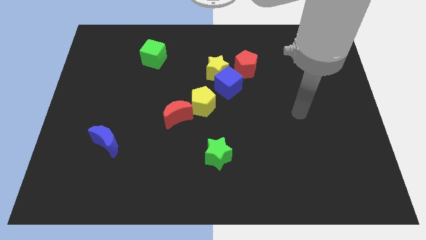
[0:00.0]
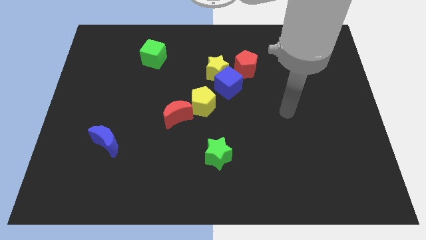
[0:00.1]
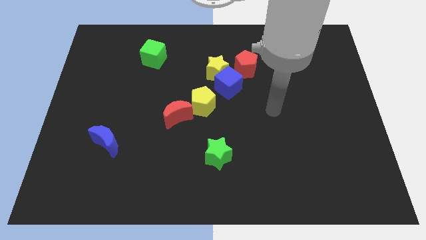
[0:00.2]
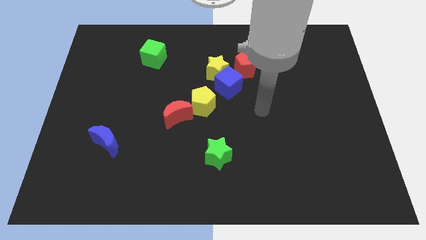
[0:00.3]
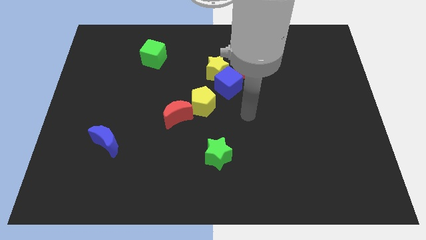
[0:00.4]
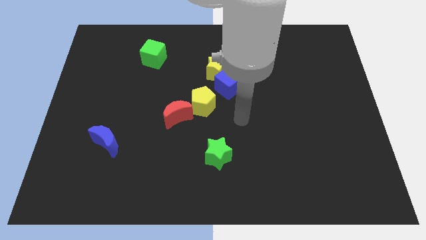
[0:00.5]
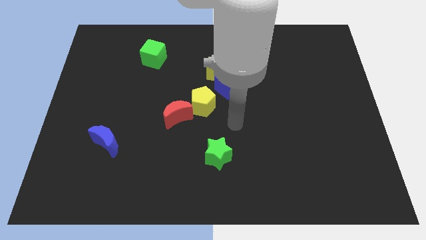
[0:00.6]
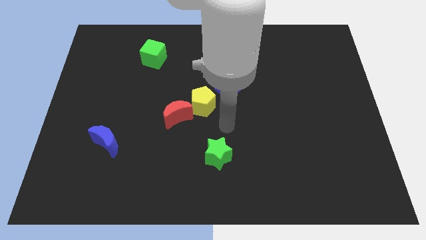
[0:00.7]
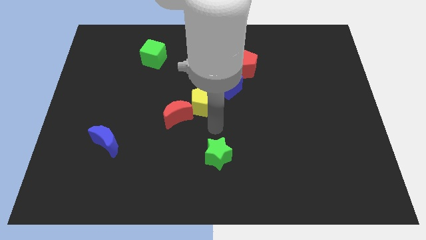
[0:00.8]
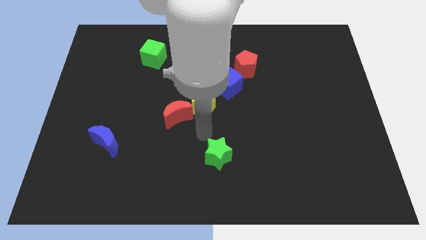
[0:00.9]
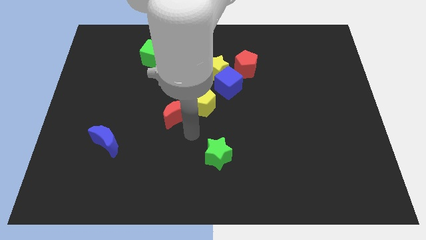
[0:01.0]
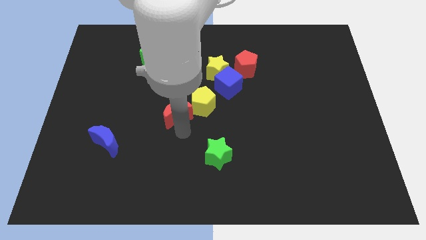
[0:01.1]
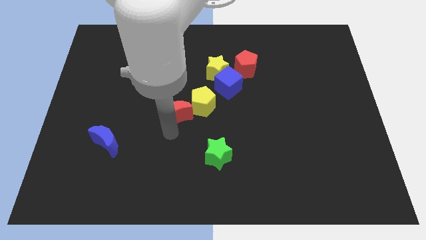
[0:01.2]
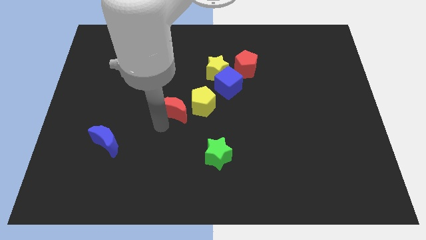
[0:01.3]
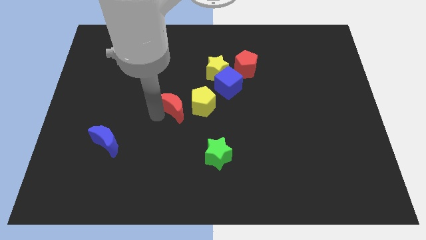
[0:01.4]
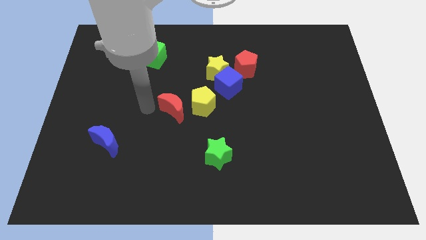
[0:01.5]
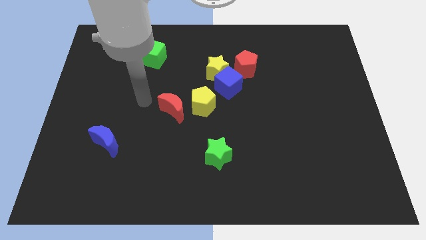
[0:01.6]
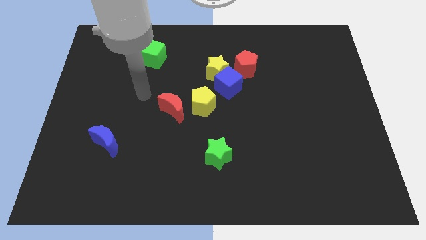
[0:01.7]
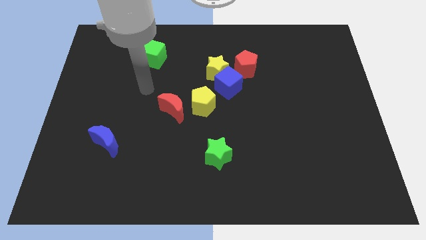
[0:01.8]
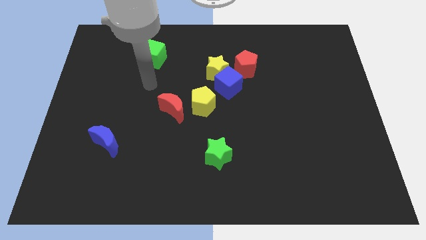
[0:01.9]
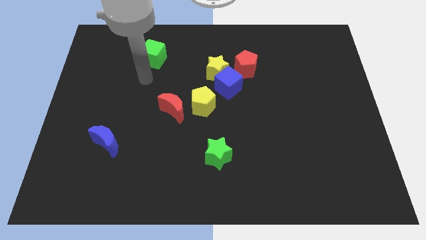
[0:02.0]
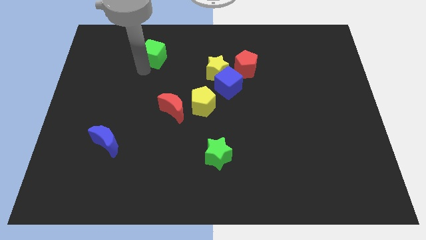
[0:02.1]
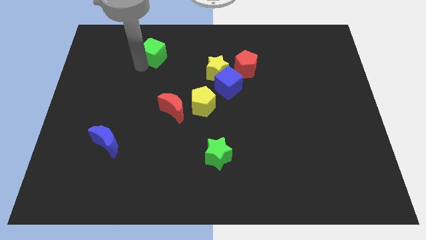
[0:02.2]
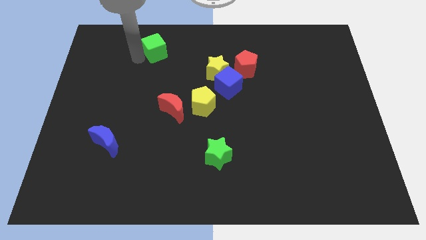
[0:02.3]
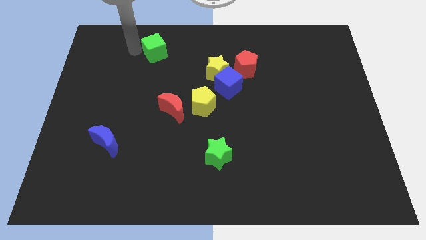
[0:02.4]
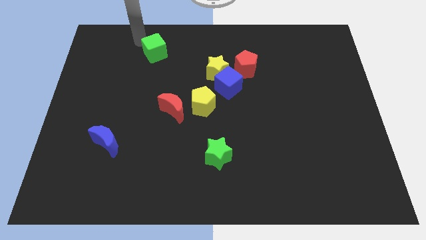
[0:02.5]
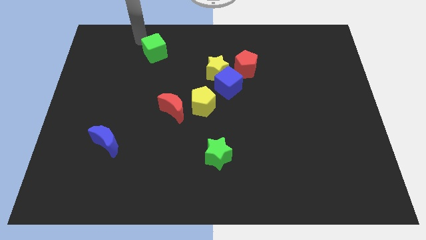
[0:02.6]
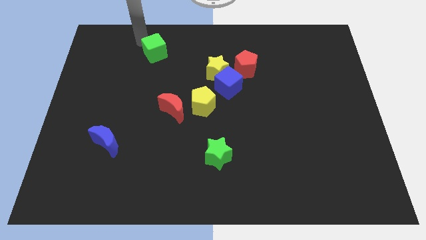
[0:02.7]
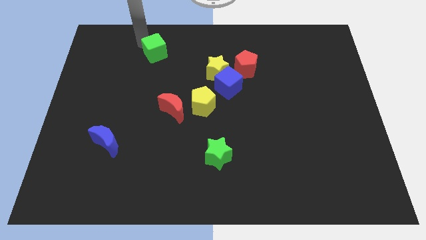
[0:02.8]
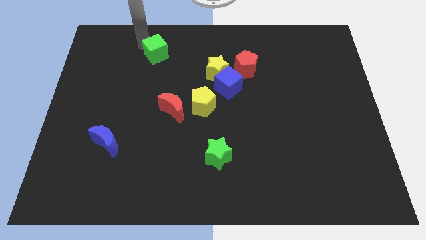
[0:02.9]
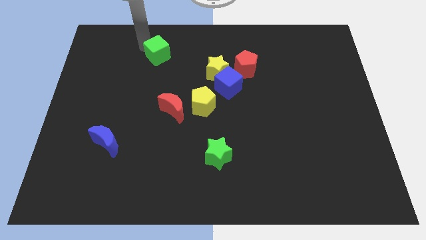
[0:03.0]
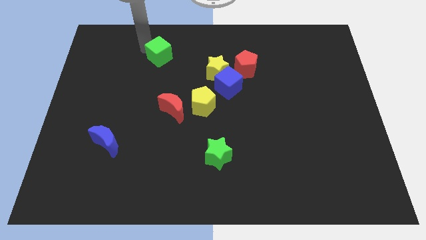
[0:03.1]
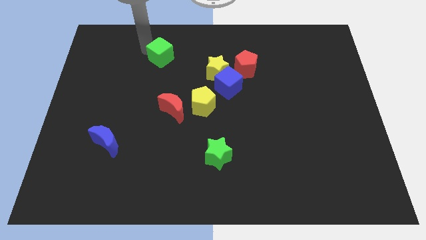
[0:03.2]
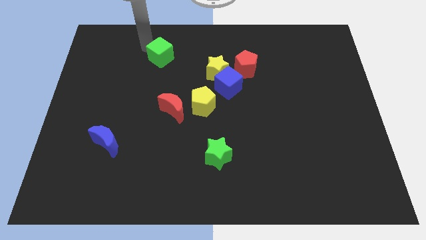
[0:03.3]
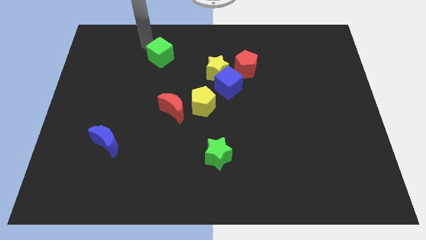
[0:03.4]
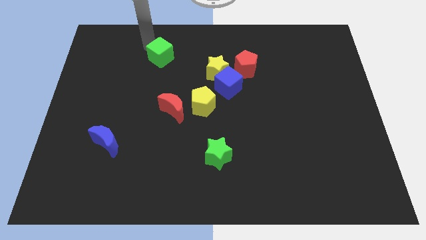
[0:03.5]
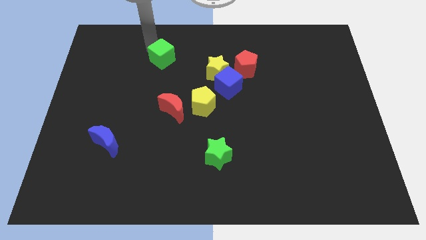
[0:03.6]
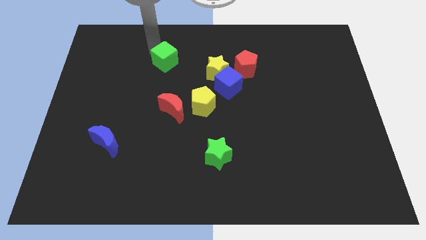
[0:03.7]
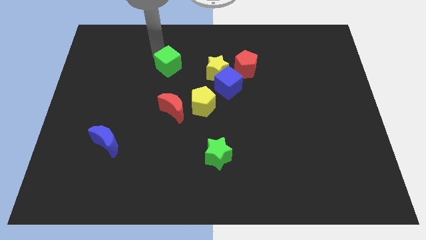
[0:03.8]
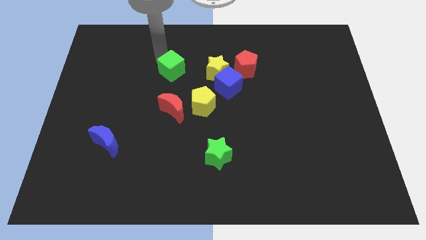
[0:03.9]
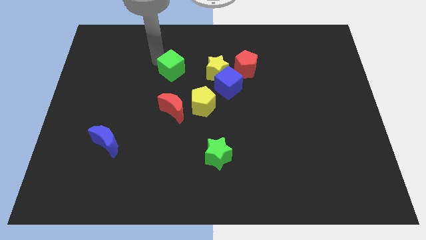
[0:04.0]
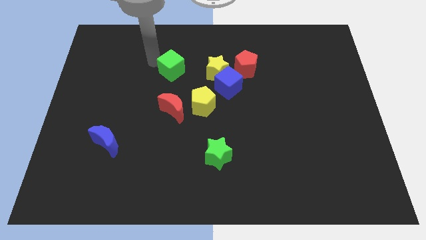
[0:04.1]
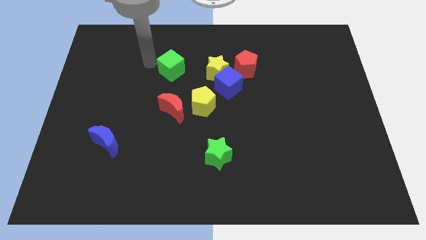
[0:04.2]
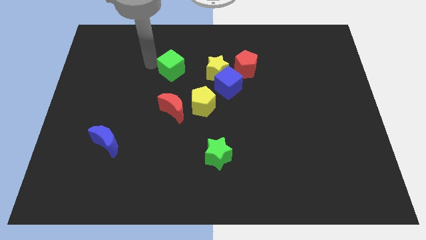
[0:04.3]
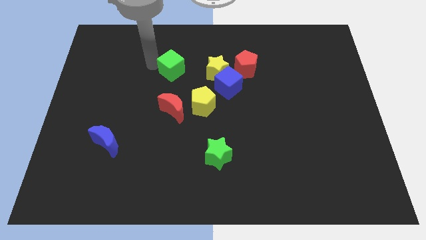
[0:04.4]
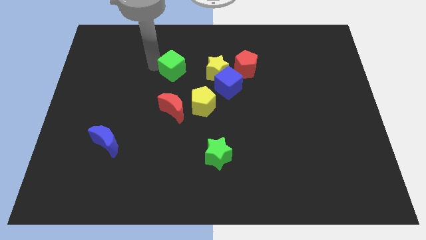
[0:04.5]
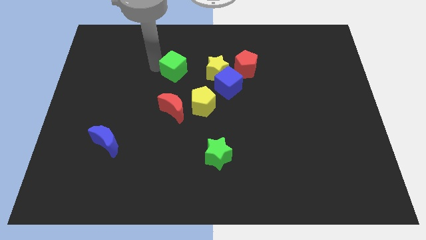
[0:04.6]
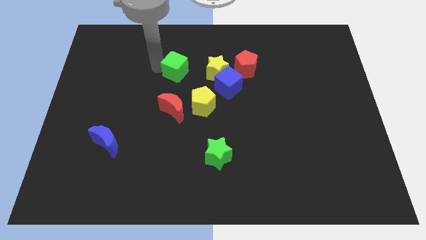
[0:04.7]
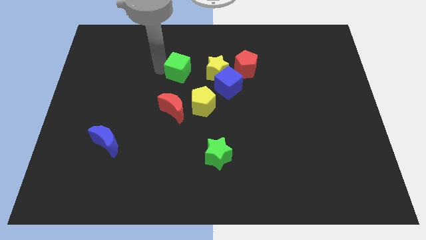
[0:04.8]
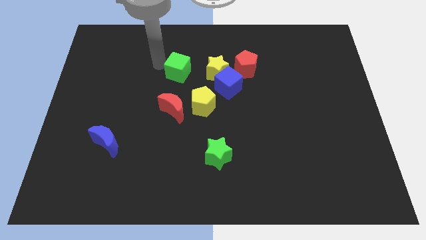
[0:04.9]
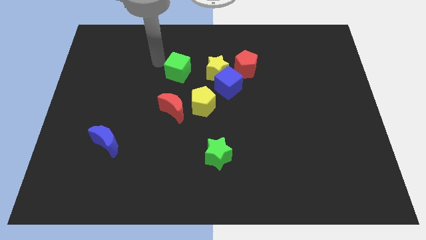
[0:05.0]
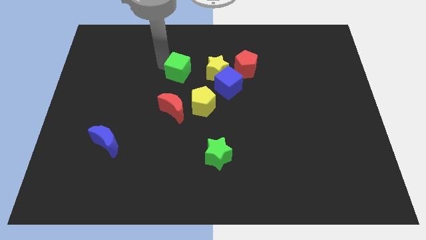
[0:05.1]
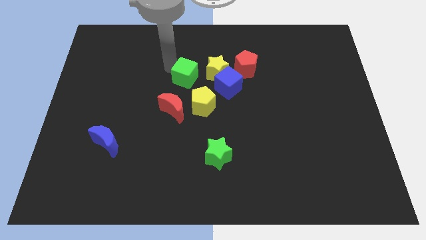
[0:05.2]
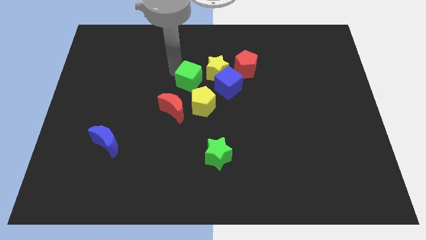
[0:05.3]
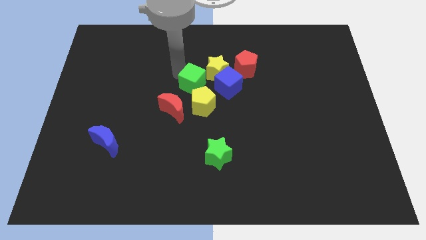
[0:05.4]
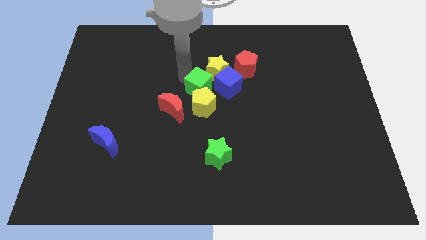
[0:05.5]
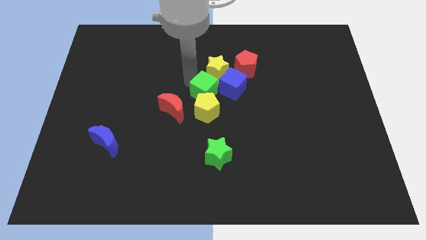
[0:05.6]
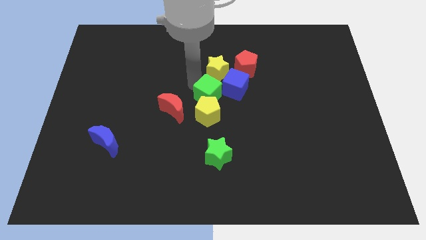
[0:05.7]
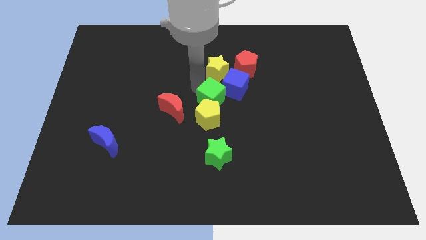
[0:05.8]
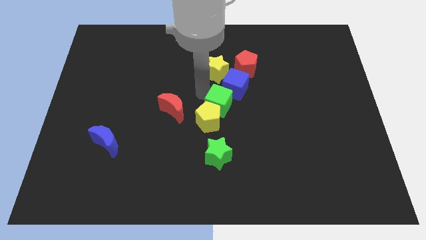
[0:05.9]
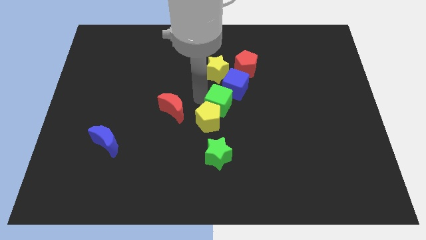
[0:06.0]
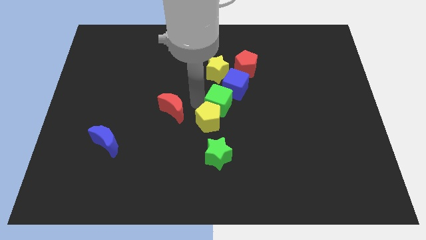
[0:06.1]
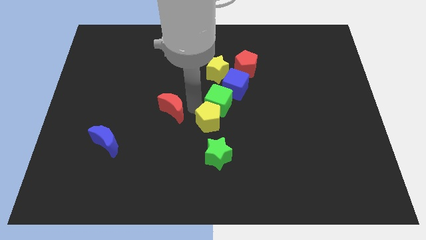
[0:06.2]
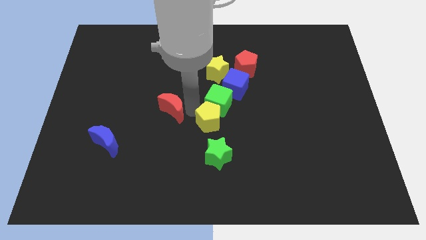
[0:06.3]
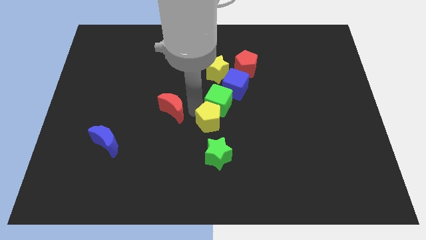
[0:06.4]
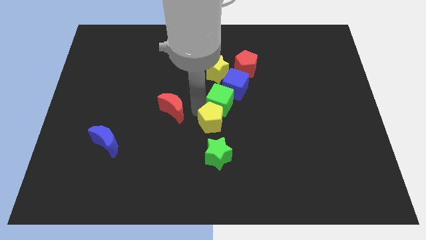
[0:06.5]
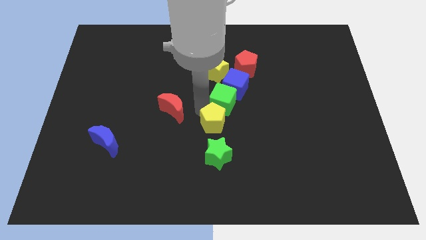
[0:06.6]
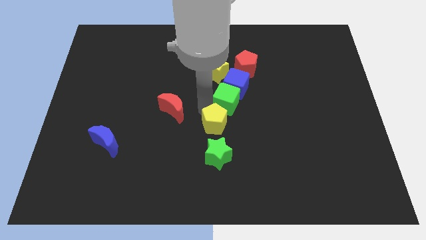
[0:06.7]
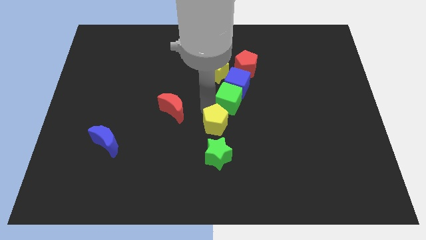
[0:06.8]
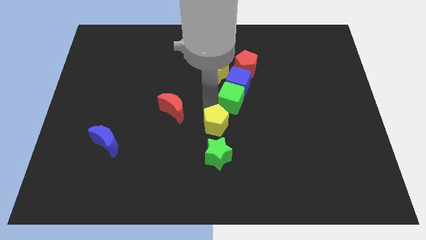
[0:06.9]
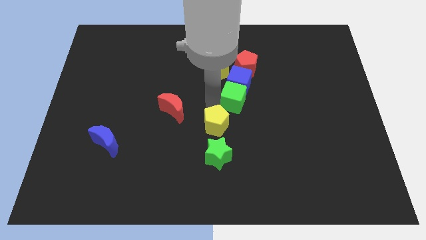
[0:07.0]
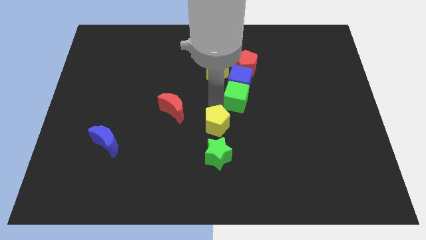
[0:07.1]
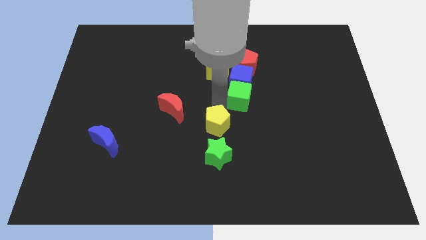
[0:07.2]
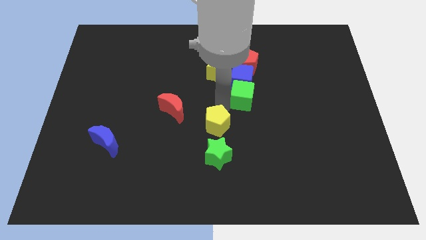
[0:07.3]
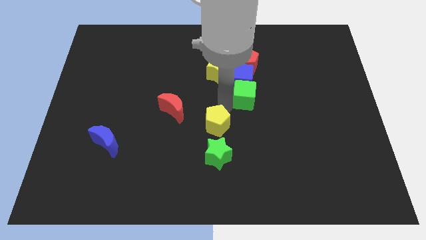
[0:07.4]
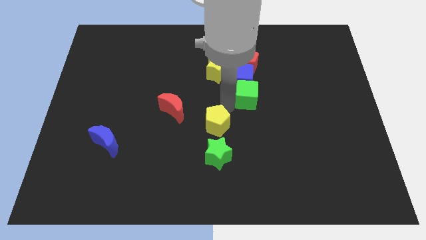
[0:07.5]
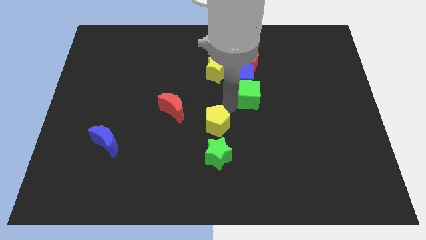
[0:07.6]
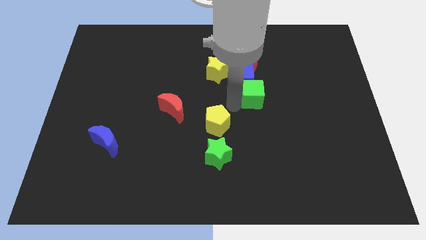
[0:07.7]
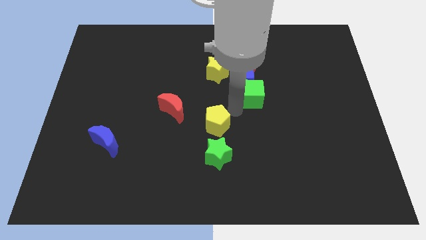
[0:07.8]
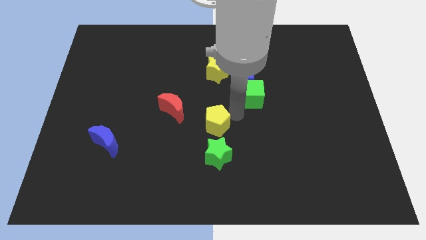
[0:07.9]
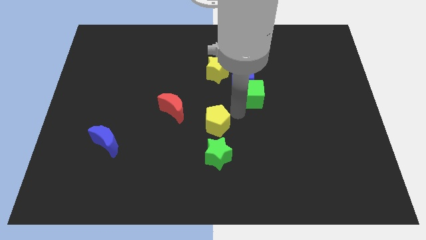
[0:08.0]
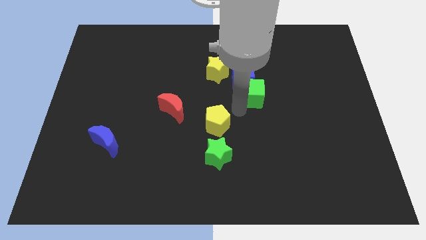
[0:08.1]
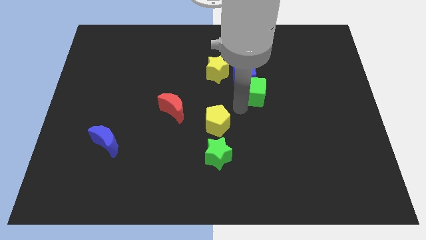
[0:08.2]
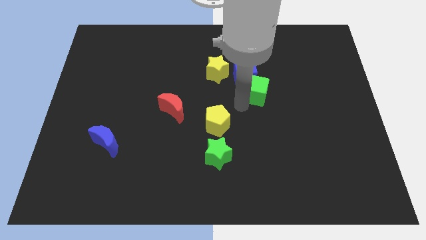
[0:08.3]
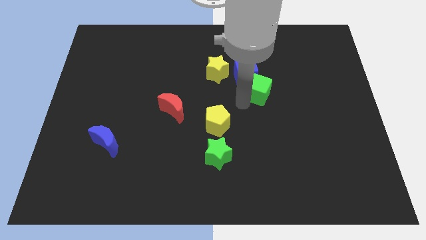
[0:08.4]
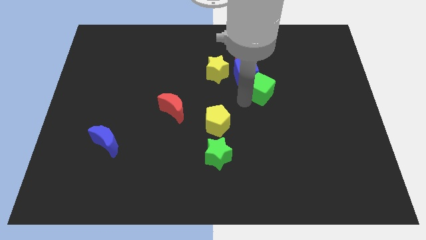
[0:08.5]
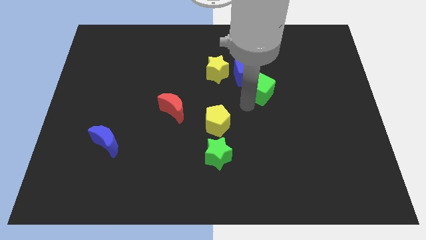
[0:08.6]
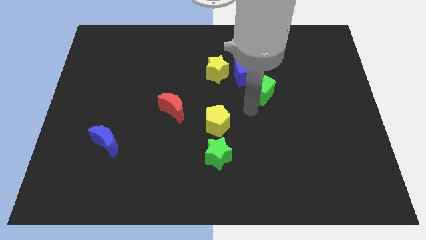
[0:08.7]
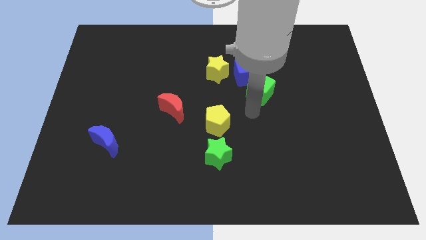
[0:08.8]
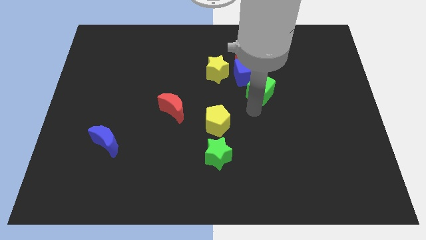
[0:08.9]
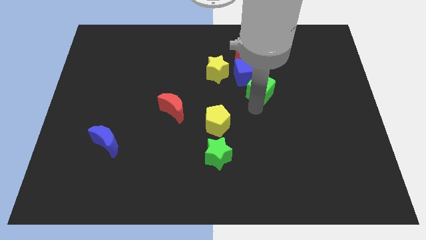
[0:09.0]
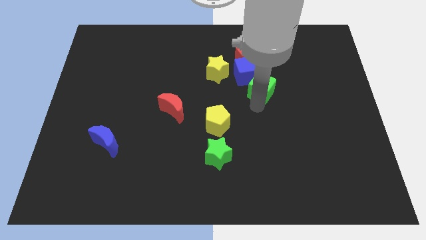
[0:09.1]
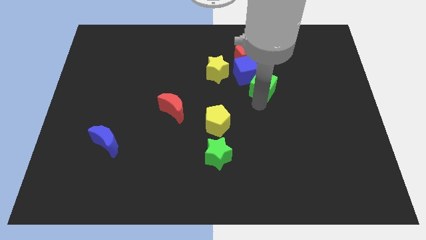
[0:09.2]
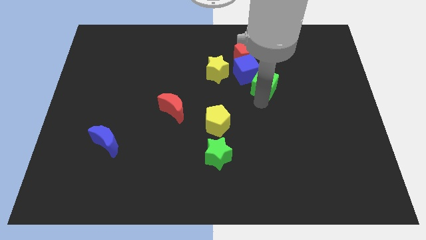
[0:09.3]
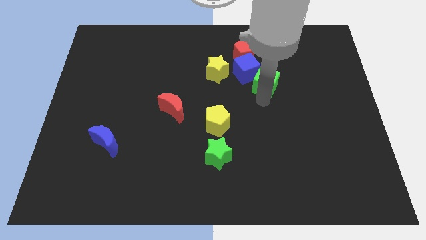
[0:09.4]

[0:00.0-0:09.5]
put the green cube to the bottom right side of the red pentagon
